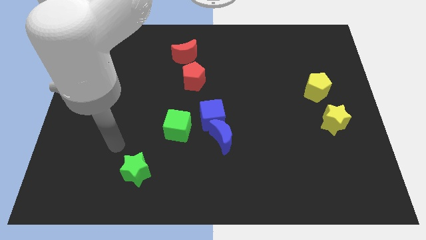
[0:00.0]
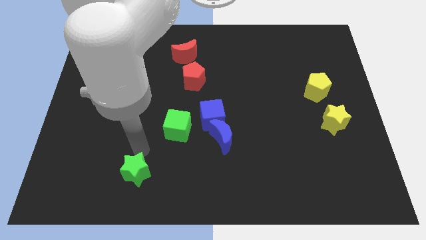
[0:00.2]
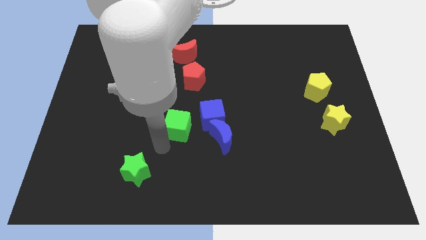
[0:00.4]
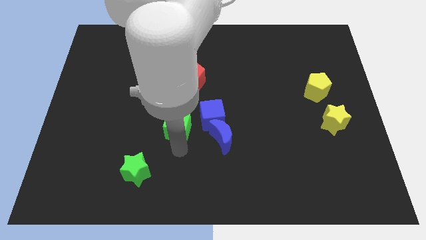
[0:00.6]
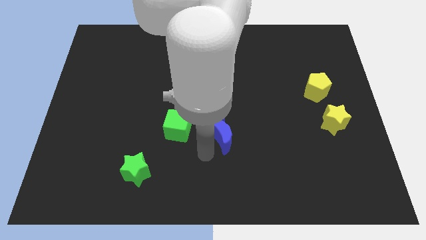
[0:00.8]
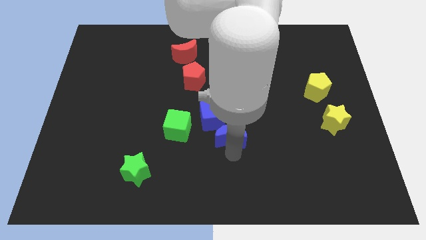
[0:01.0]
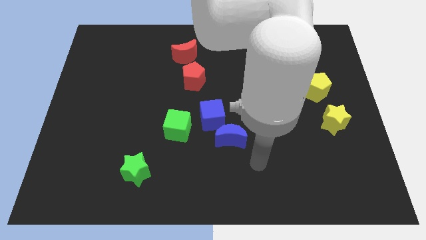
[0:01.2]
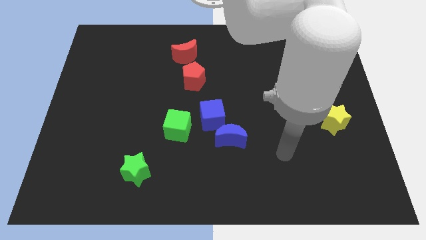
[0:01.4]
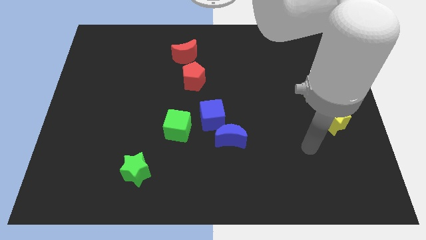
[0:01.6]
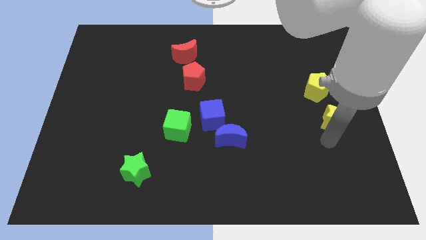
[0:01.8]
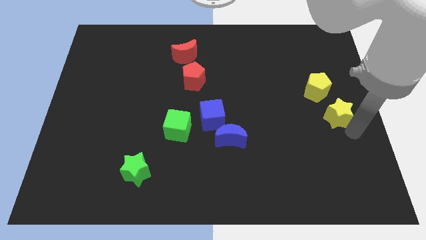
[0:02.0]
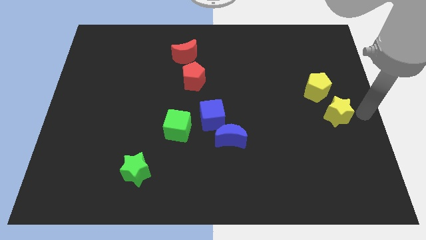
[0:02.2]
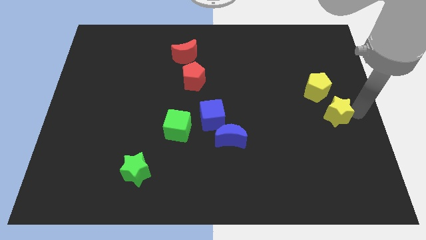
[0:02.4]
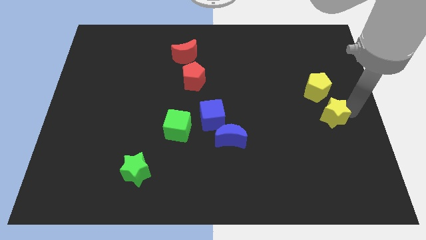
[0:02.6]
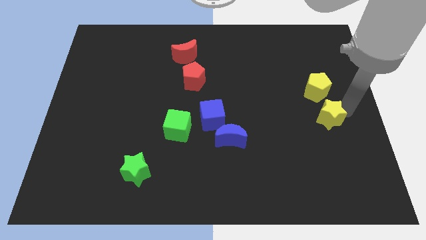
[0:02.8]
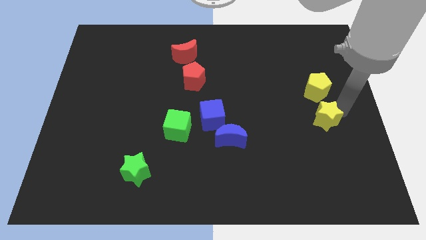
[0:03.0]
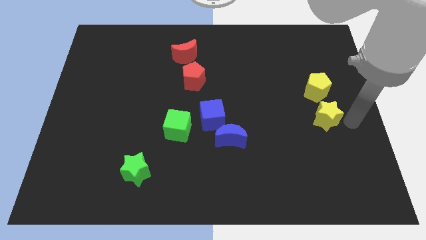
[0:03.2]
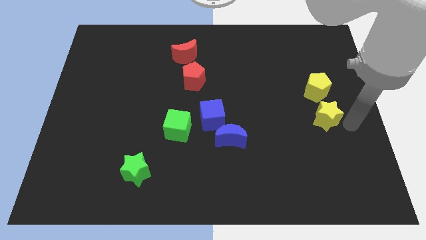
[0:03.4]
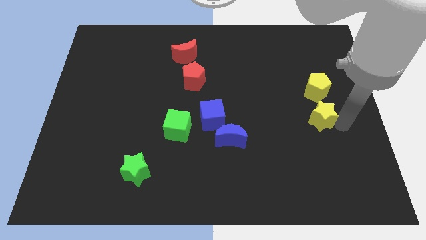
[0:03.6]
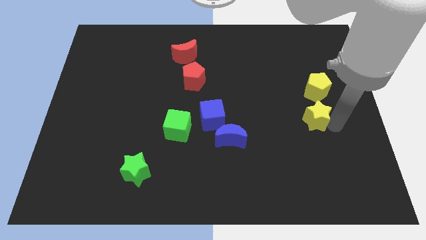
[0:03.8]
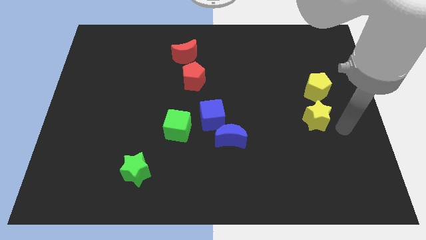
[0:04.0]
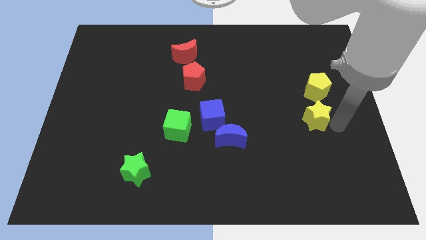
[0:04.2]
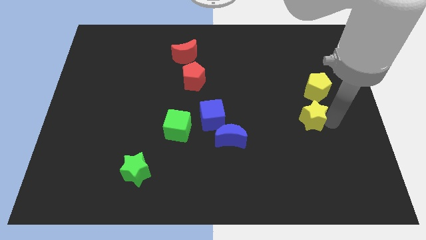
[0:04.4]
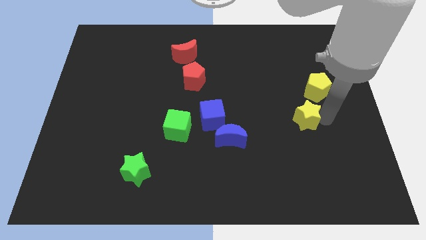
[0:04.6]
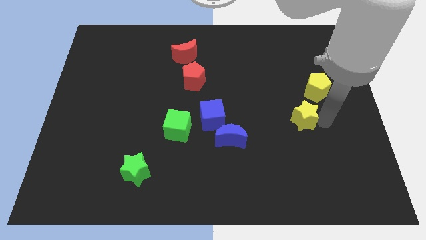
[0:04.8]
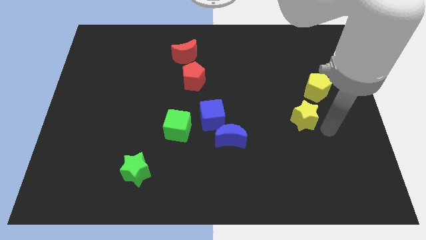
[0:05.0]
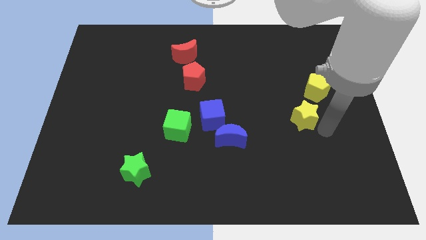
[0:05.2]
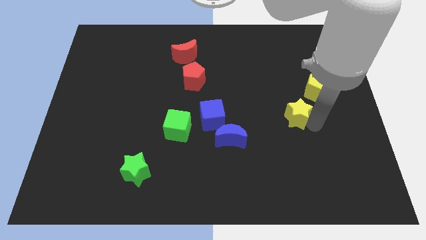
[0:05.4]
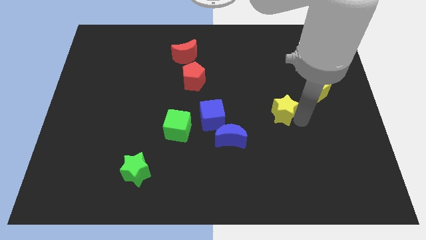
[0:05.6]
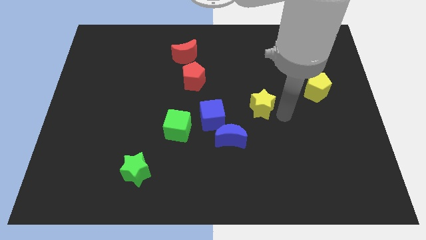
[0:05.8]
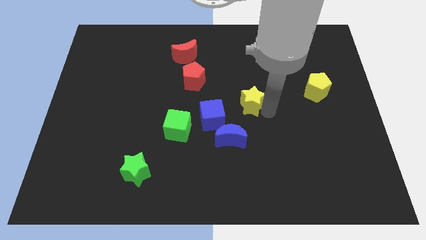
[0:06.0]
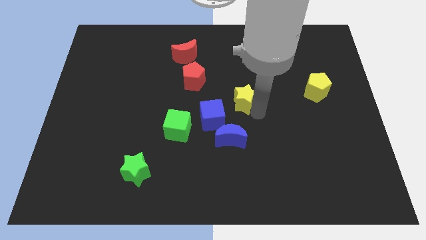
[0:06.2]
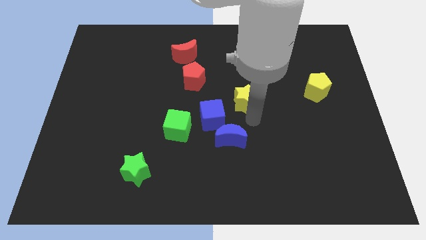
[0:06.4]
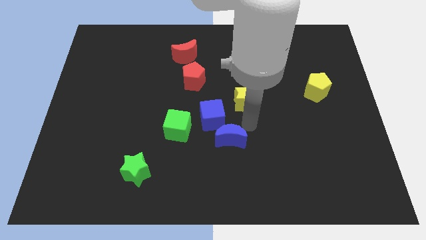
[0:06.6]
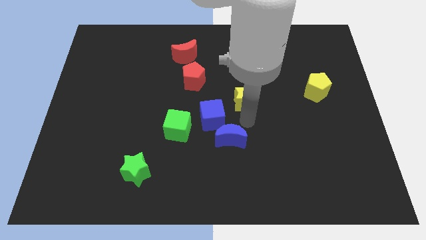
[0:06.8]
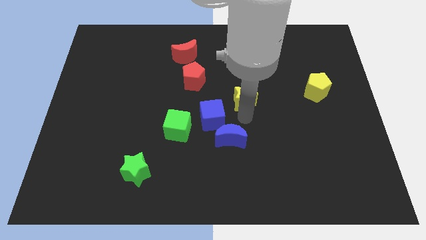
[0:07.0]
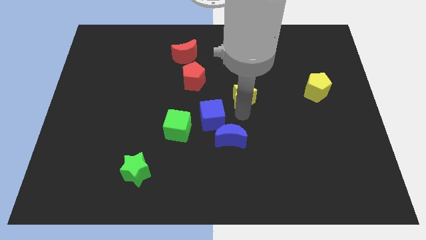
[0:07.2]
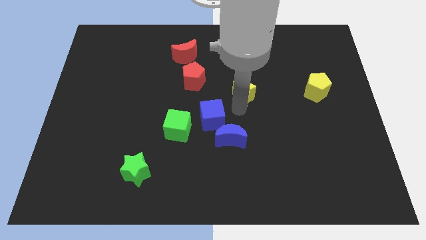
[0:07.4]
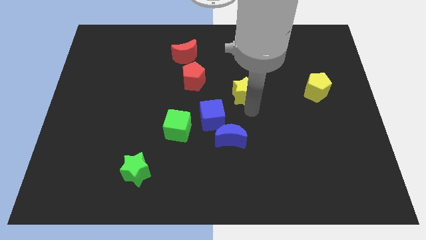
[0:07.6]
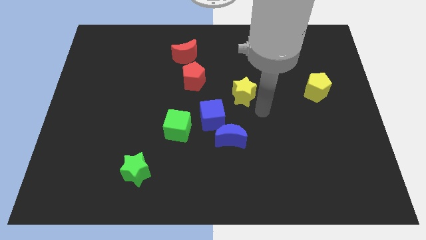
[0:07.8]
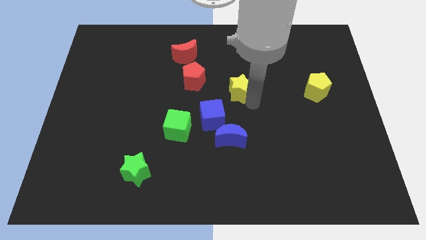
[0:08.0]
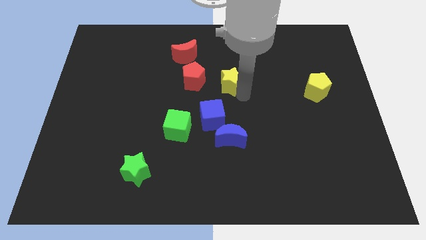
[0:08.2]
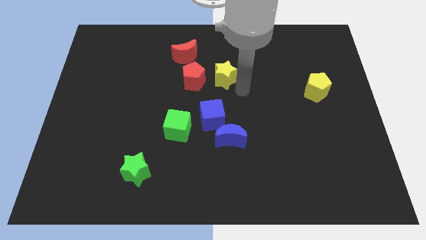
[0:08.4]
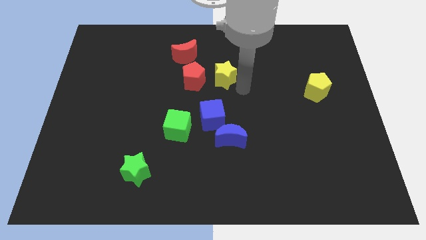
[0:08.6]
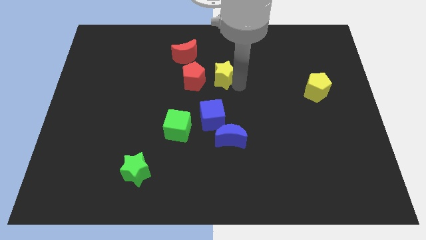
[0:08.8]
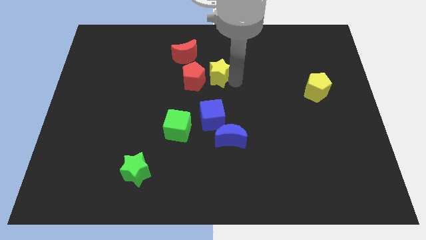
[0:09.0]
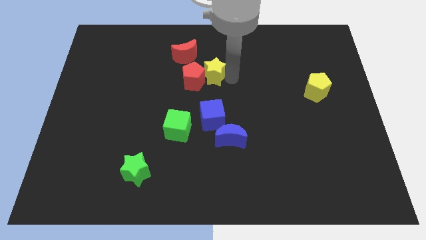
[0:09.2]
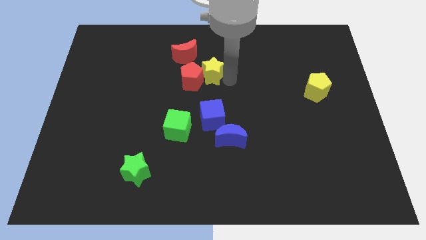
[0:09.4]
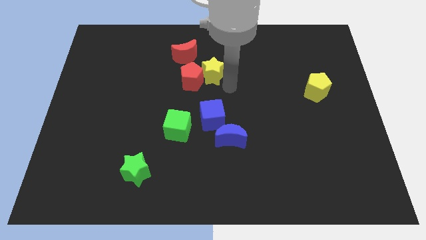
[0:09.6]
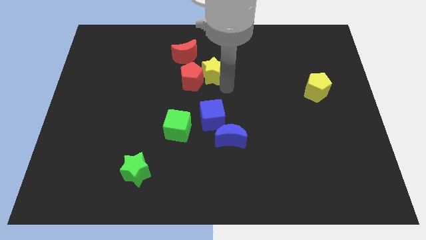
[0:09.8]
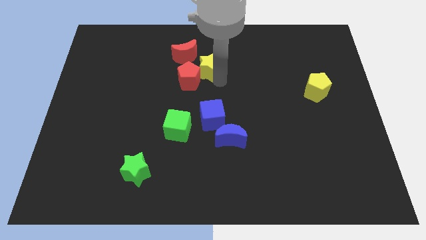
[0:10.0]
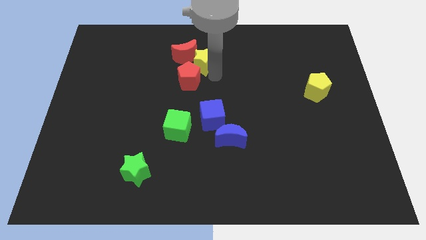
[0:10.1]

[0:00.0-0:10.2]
move the yellow star towards the red moon

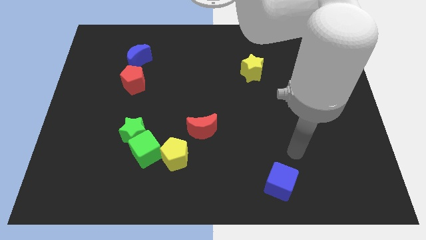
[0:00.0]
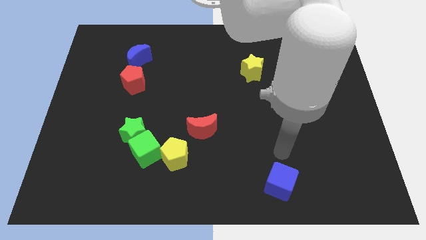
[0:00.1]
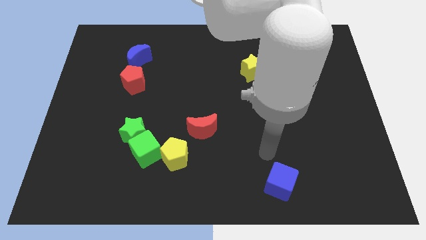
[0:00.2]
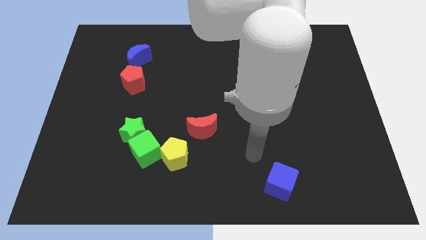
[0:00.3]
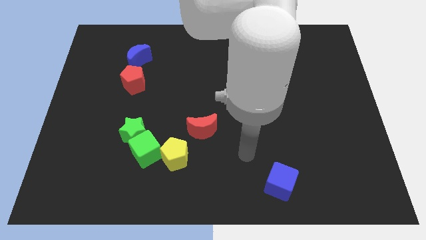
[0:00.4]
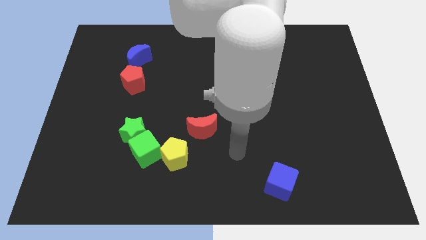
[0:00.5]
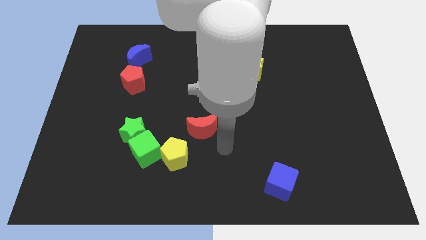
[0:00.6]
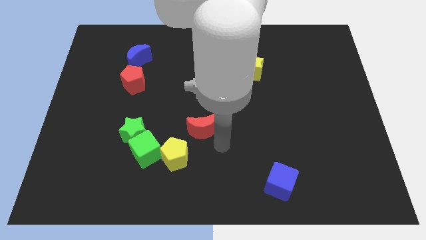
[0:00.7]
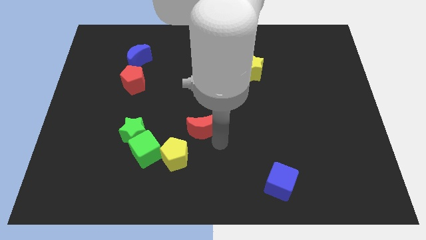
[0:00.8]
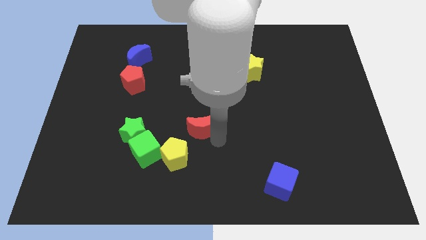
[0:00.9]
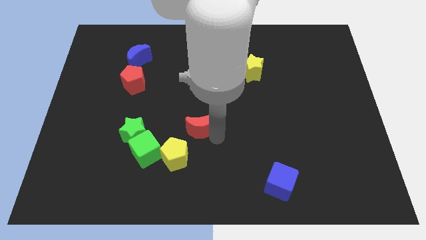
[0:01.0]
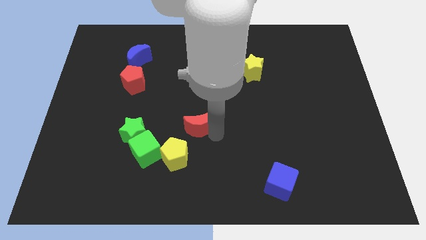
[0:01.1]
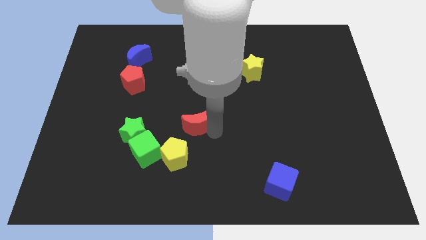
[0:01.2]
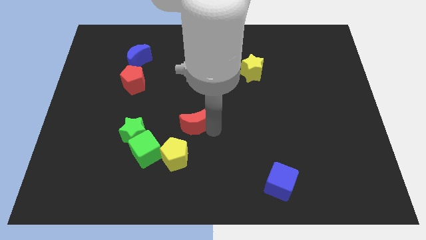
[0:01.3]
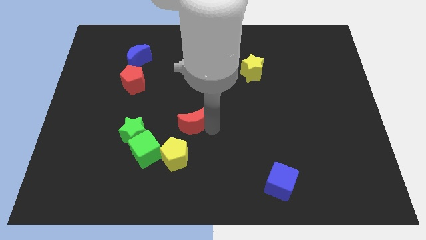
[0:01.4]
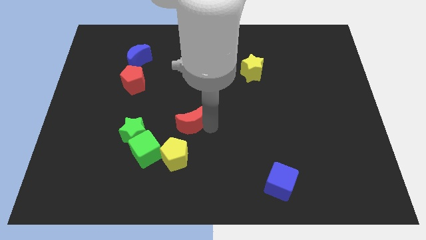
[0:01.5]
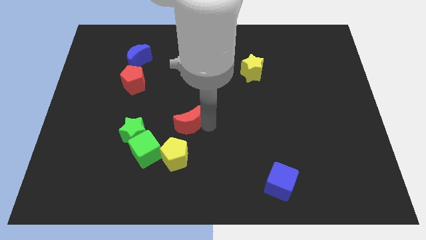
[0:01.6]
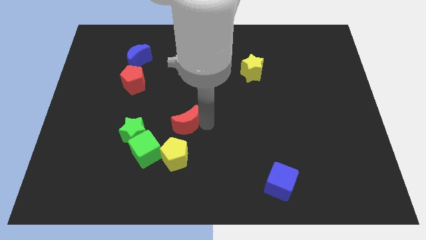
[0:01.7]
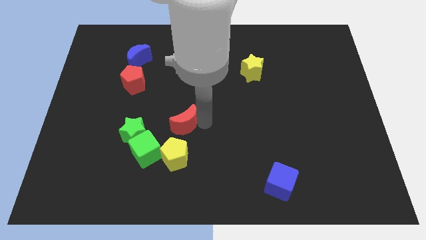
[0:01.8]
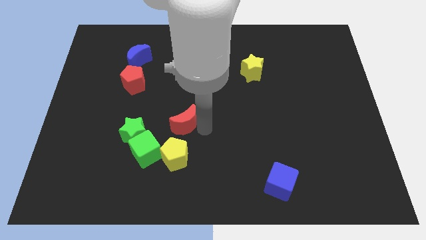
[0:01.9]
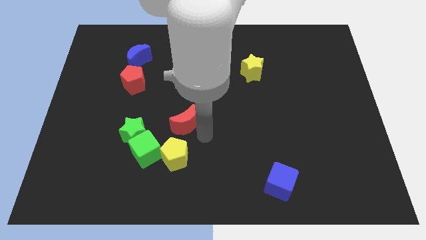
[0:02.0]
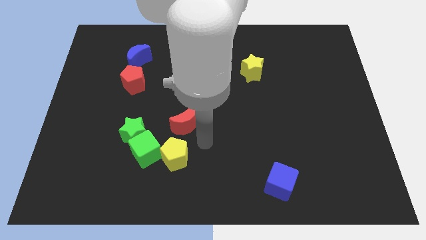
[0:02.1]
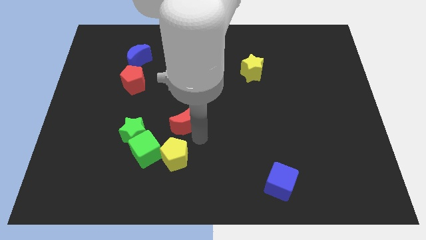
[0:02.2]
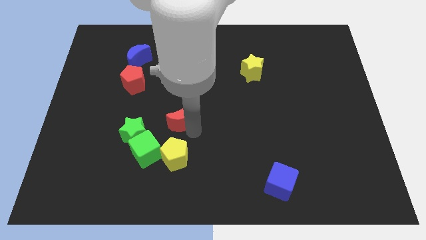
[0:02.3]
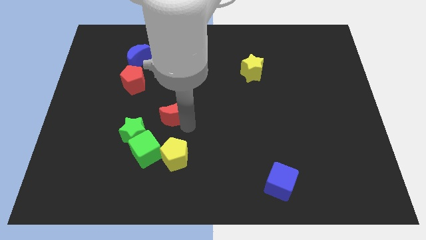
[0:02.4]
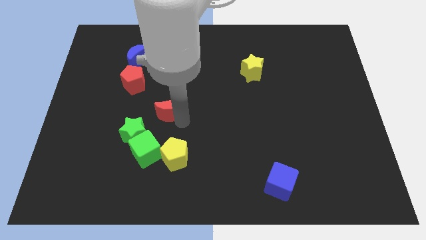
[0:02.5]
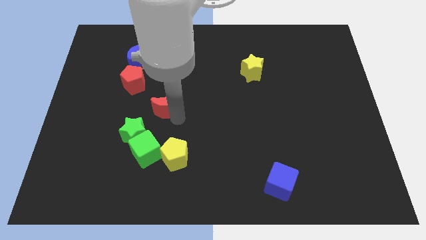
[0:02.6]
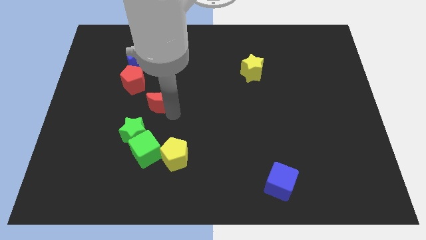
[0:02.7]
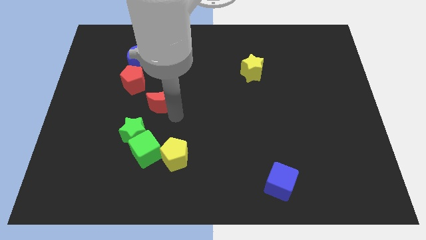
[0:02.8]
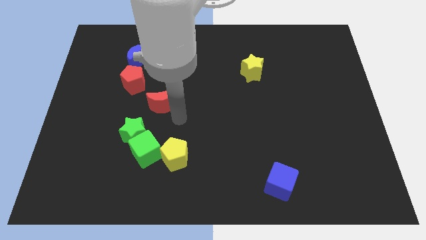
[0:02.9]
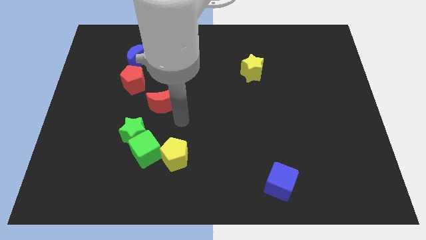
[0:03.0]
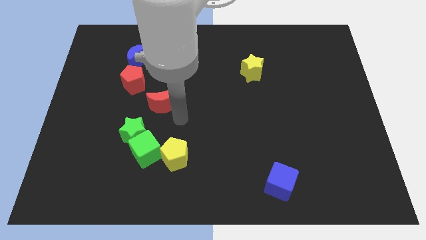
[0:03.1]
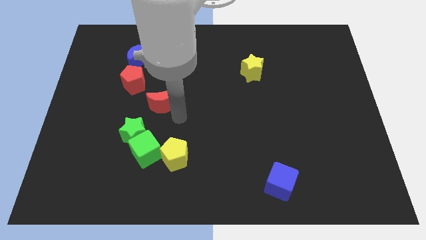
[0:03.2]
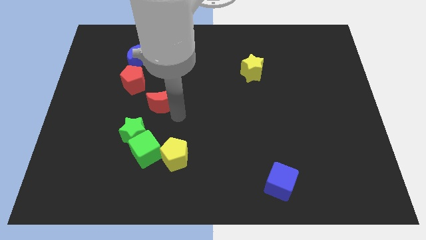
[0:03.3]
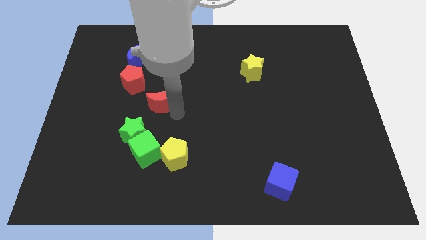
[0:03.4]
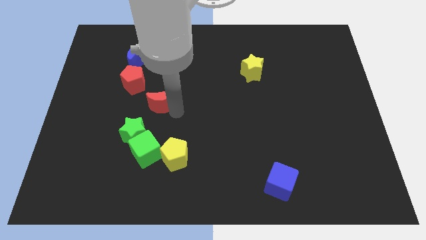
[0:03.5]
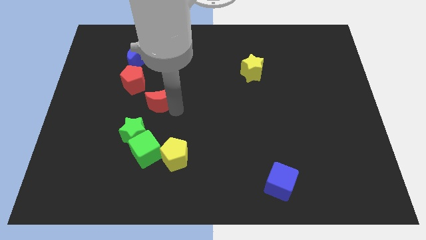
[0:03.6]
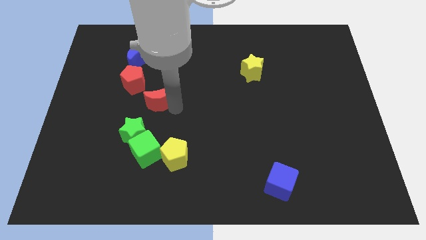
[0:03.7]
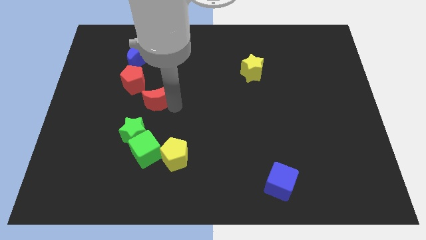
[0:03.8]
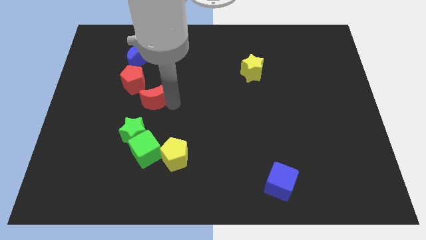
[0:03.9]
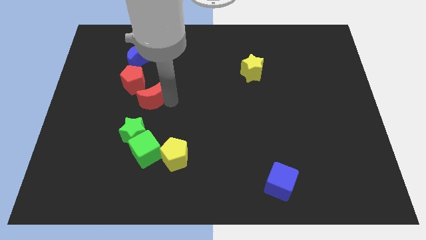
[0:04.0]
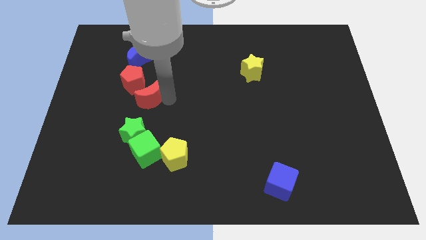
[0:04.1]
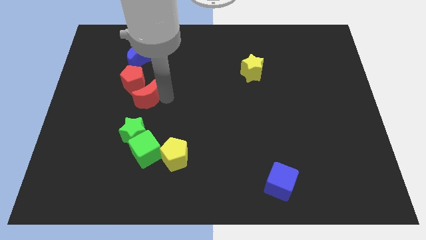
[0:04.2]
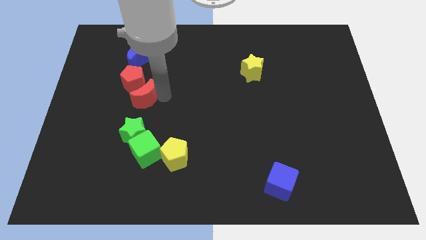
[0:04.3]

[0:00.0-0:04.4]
push the red moon next to the red pentagon
